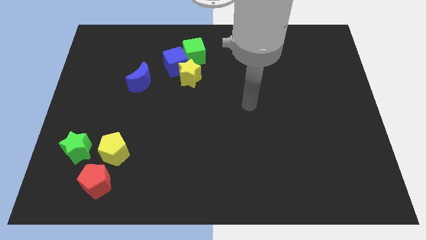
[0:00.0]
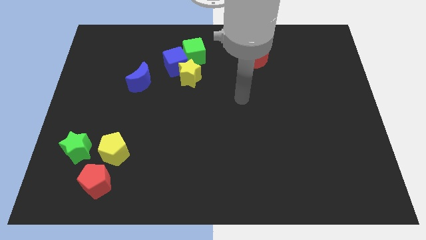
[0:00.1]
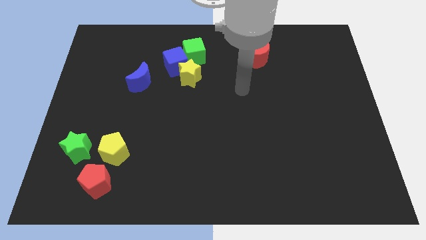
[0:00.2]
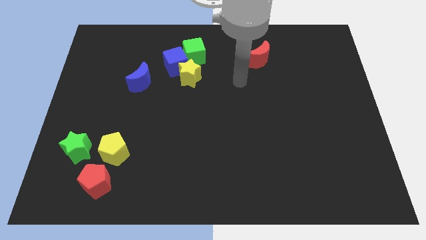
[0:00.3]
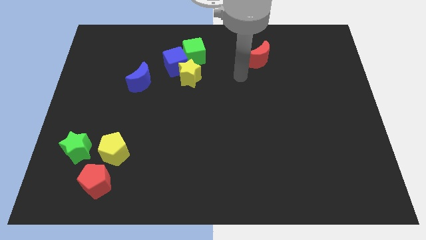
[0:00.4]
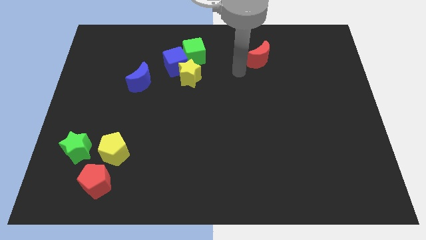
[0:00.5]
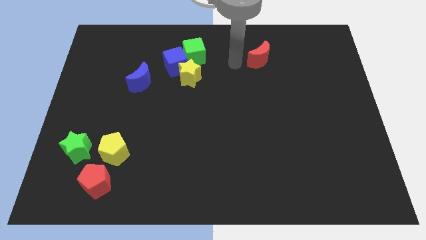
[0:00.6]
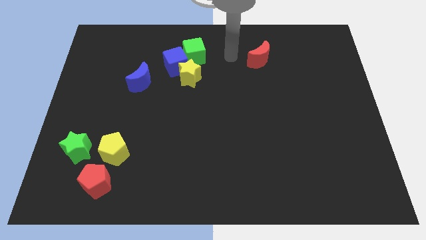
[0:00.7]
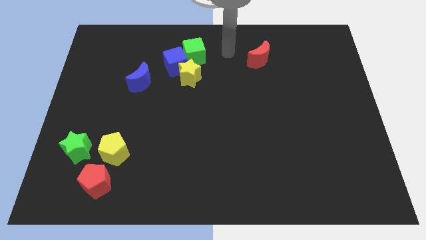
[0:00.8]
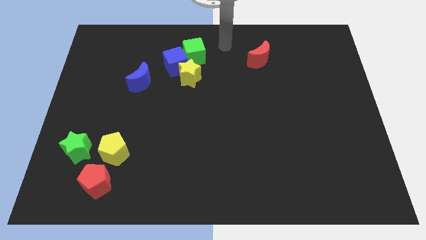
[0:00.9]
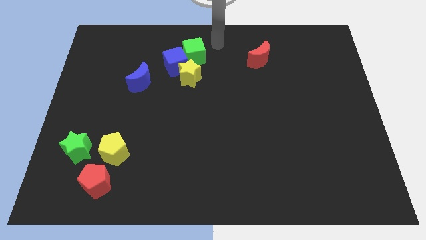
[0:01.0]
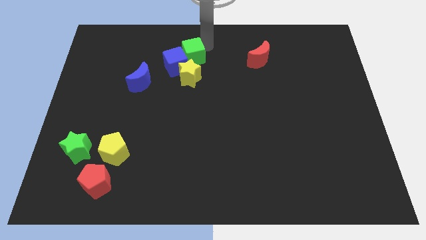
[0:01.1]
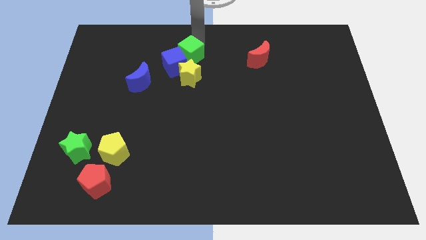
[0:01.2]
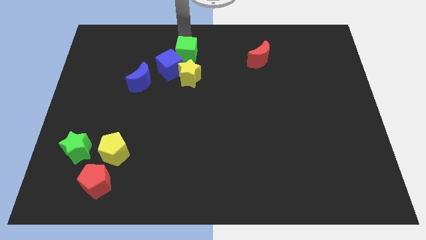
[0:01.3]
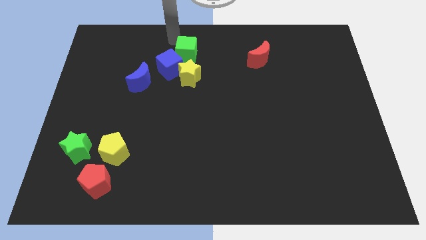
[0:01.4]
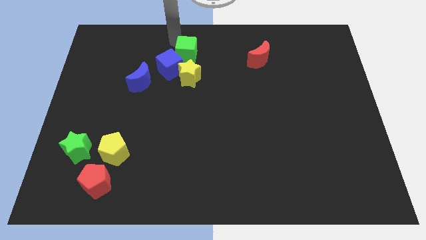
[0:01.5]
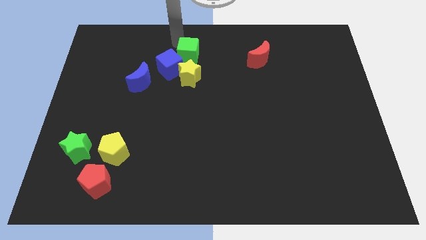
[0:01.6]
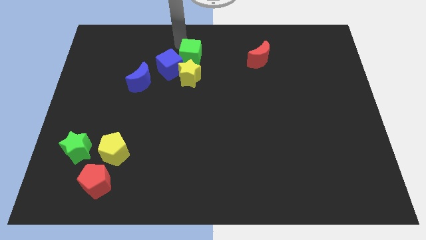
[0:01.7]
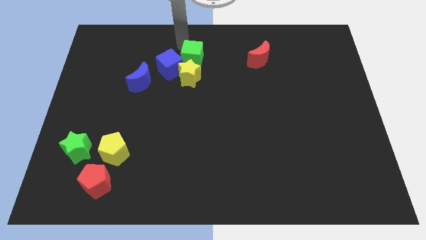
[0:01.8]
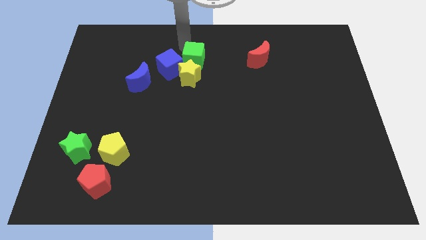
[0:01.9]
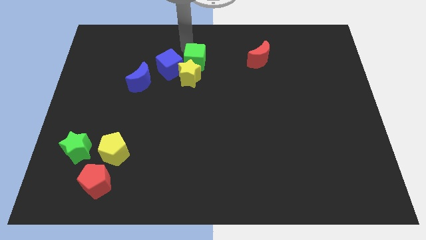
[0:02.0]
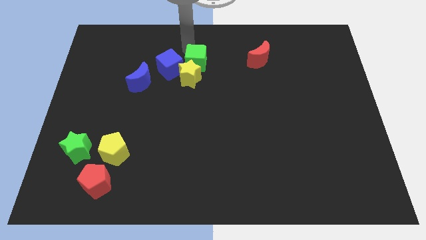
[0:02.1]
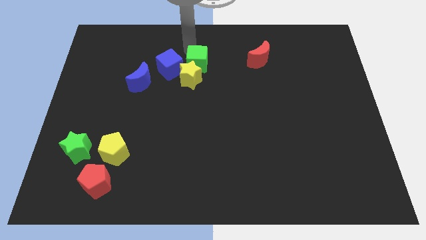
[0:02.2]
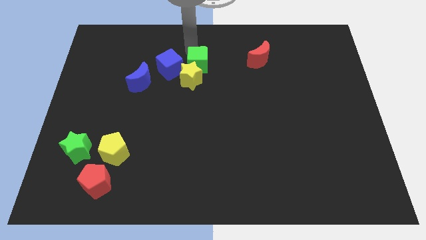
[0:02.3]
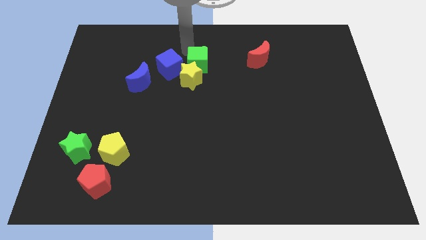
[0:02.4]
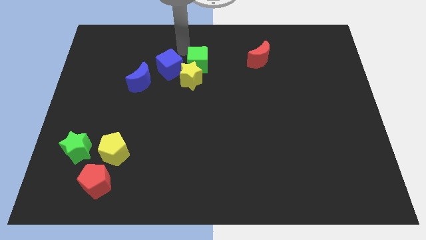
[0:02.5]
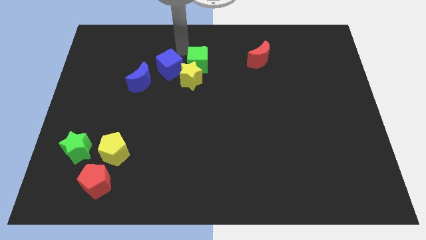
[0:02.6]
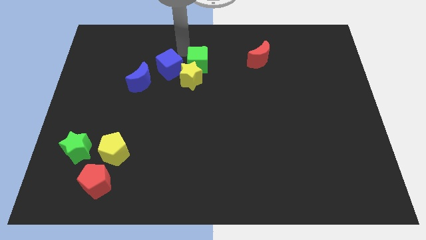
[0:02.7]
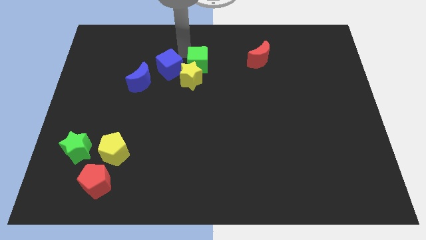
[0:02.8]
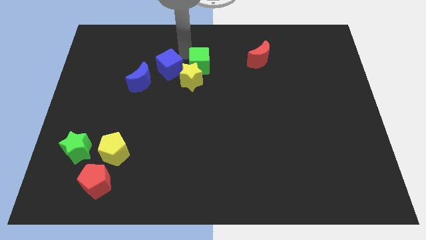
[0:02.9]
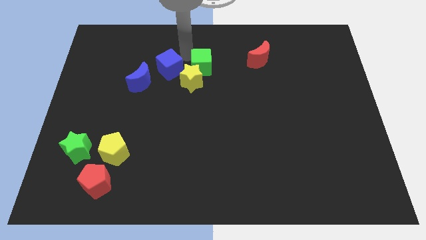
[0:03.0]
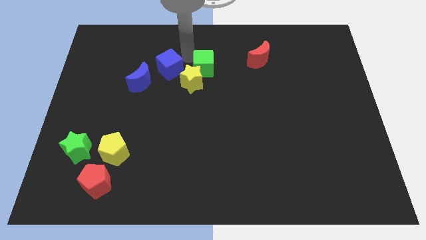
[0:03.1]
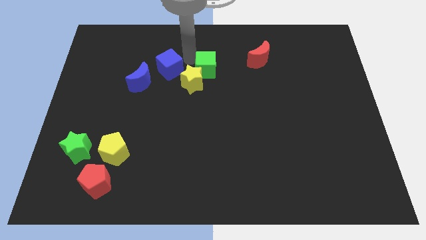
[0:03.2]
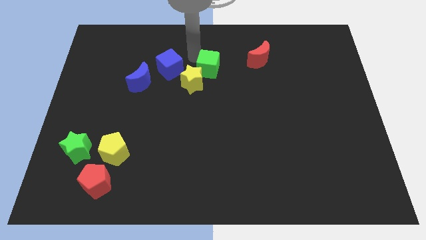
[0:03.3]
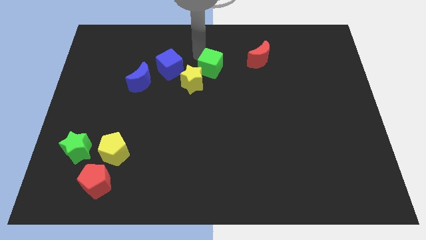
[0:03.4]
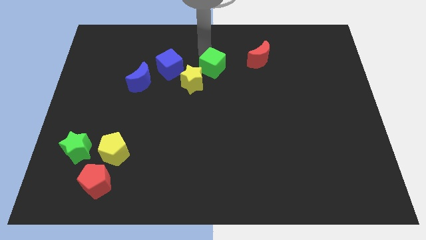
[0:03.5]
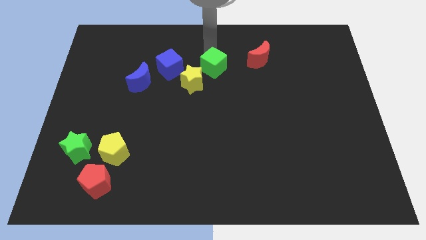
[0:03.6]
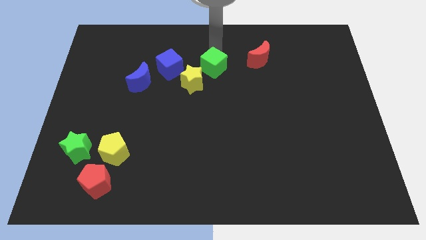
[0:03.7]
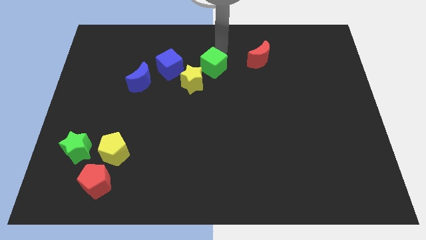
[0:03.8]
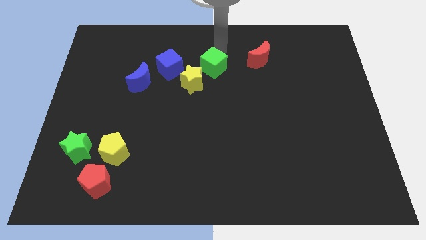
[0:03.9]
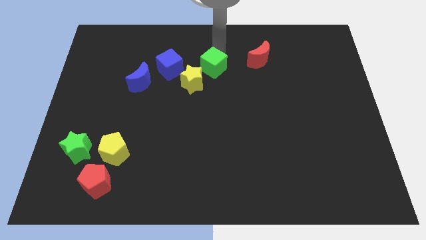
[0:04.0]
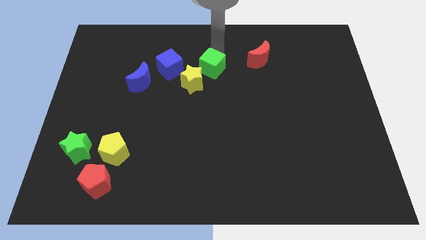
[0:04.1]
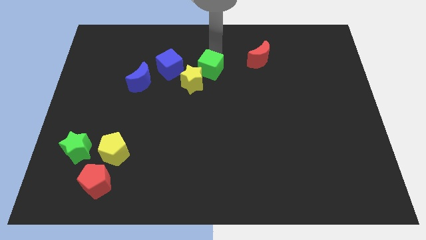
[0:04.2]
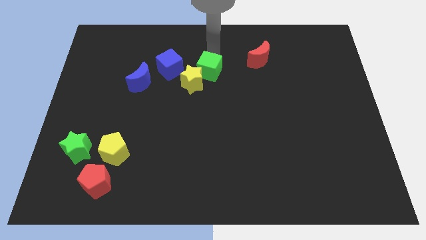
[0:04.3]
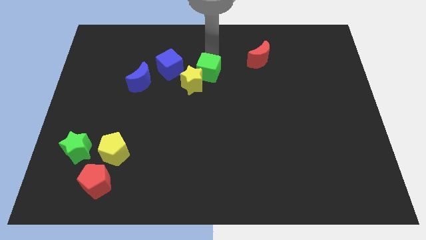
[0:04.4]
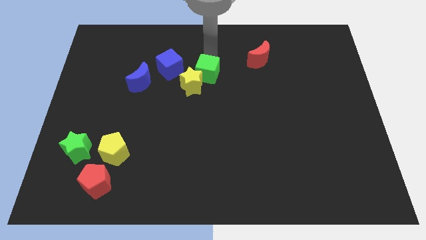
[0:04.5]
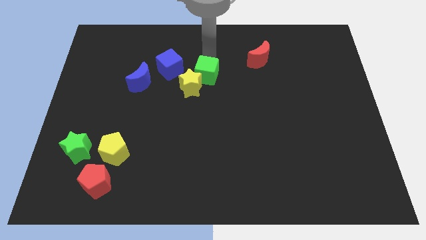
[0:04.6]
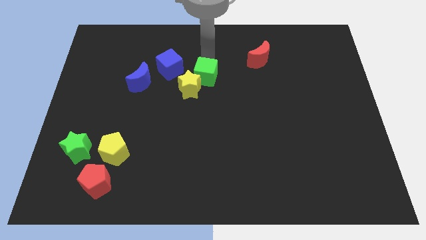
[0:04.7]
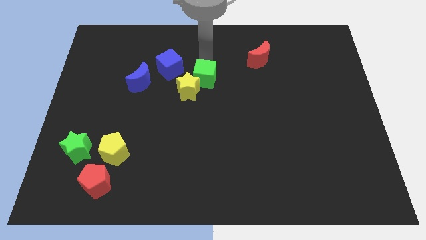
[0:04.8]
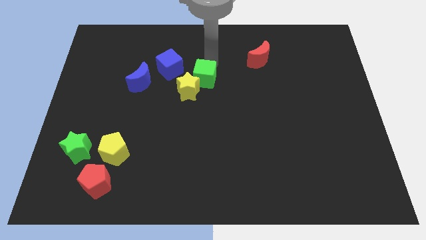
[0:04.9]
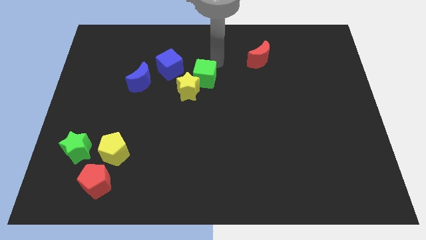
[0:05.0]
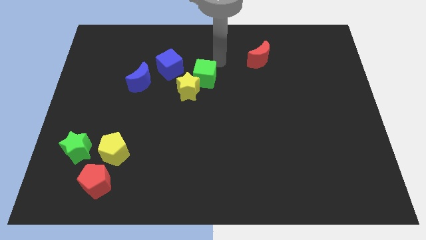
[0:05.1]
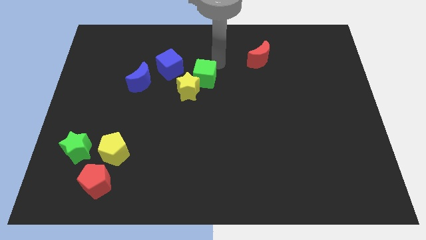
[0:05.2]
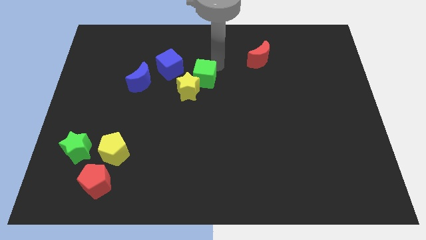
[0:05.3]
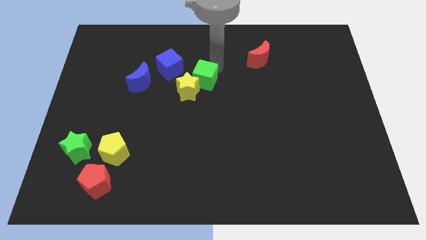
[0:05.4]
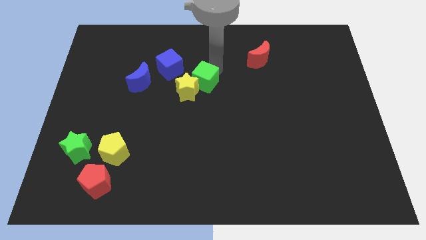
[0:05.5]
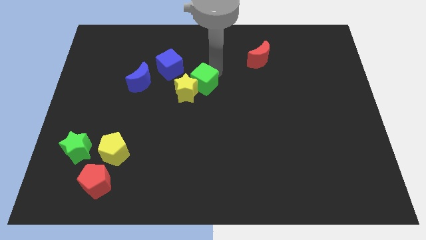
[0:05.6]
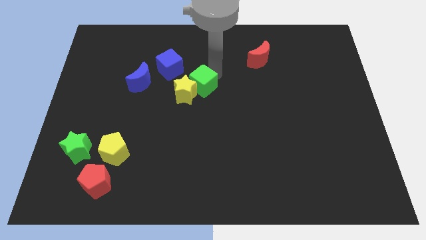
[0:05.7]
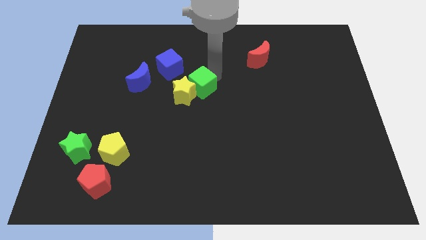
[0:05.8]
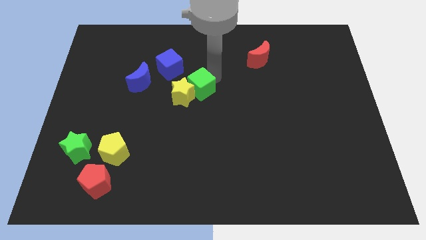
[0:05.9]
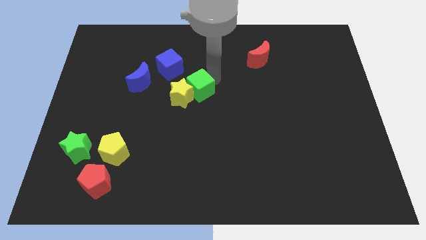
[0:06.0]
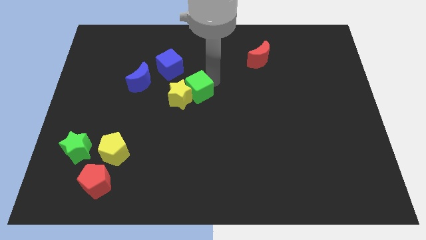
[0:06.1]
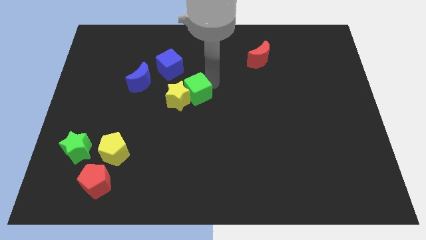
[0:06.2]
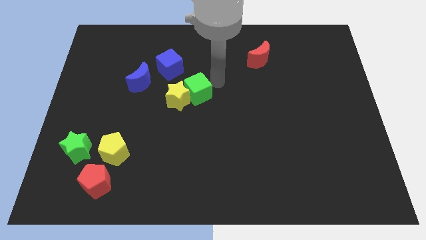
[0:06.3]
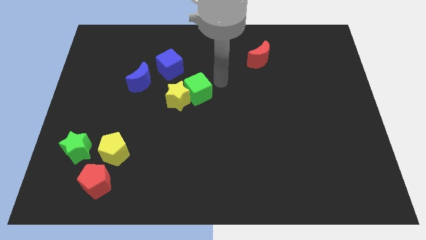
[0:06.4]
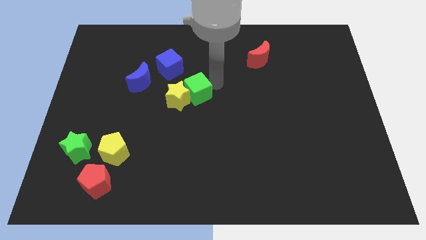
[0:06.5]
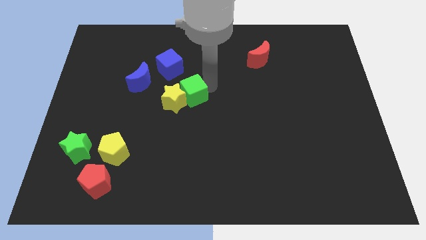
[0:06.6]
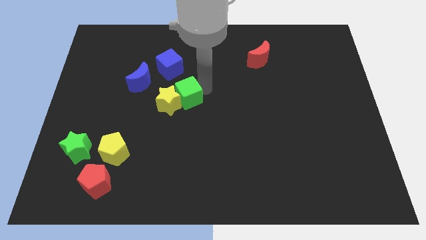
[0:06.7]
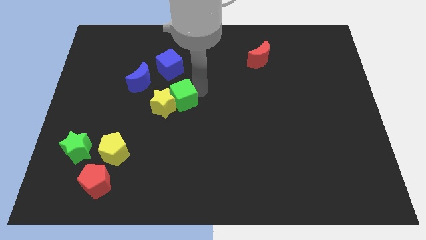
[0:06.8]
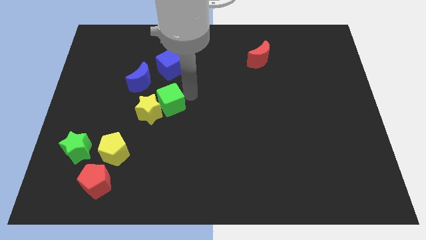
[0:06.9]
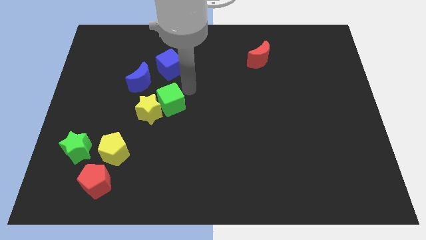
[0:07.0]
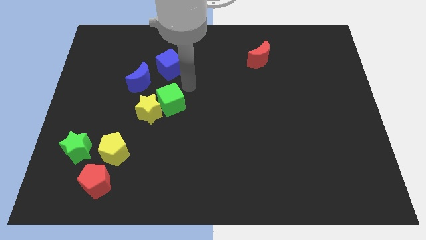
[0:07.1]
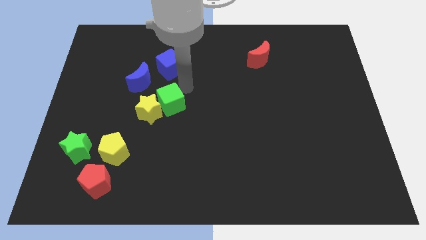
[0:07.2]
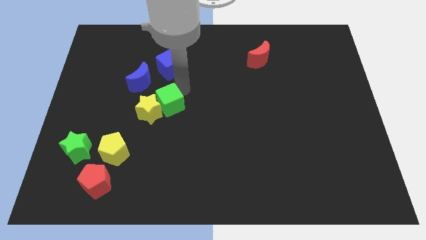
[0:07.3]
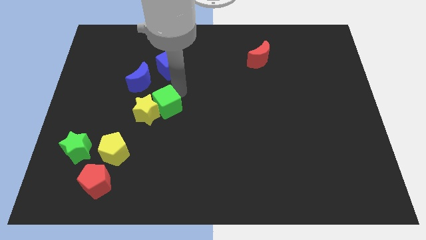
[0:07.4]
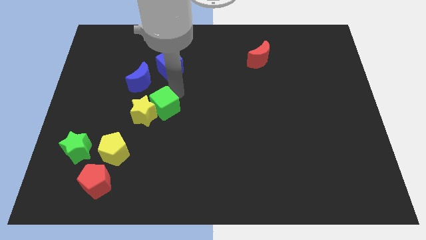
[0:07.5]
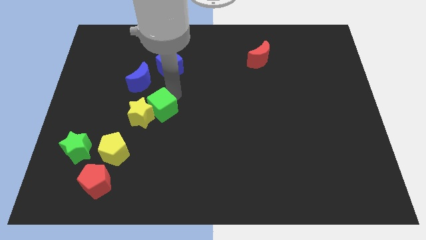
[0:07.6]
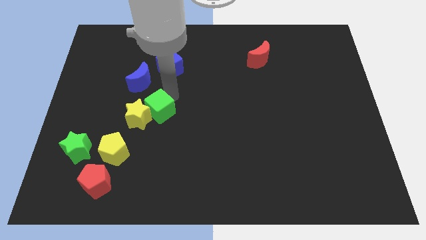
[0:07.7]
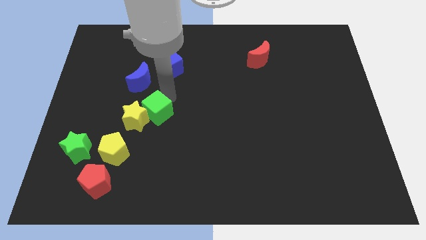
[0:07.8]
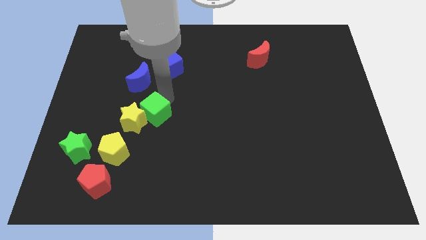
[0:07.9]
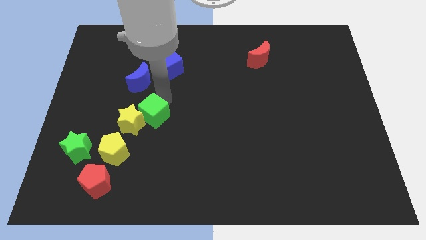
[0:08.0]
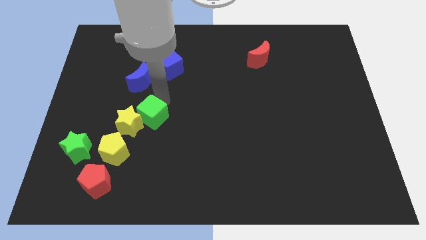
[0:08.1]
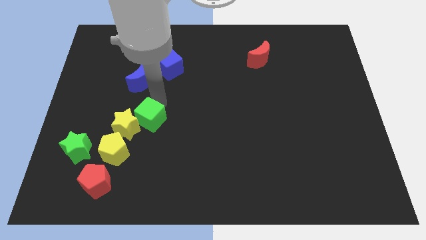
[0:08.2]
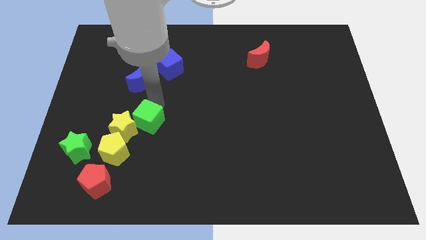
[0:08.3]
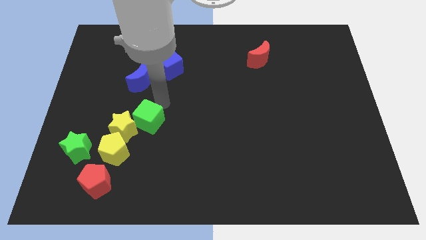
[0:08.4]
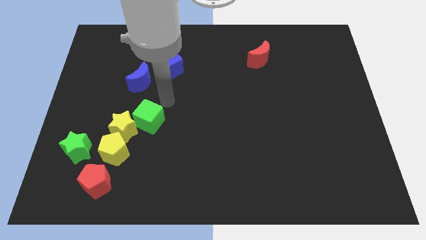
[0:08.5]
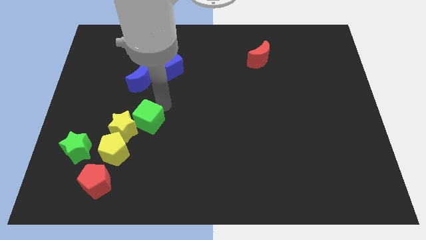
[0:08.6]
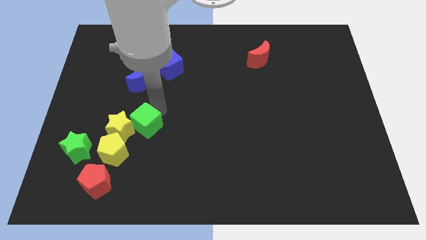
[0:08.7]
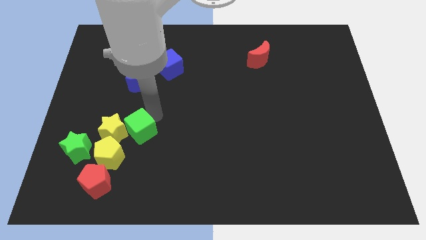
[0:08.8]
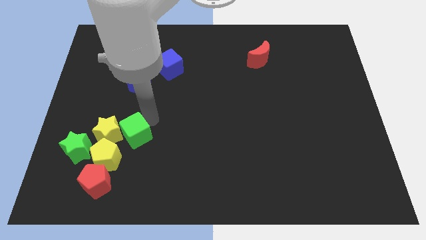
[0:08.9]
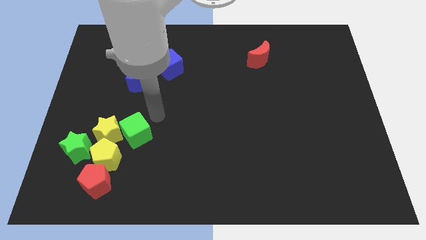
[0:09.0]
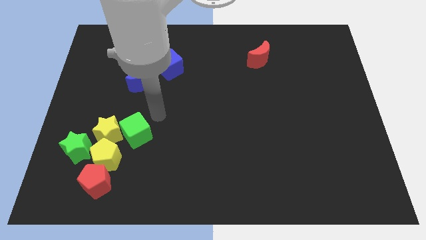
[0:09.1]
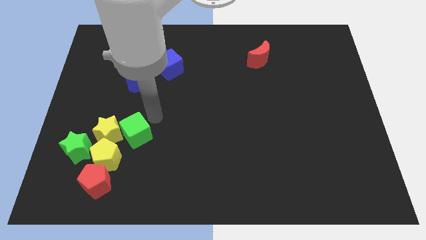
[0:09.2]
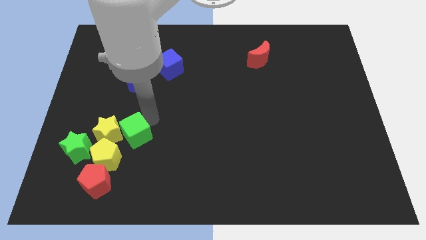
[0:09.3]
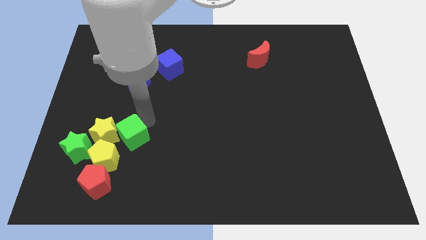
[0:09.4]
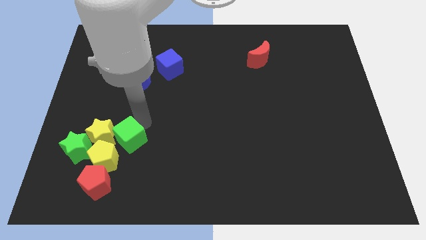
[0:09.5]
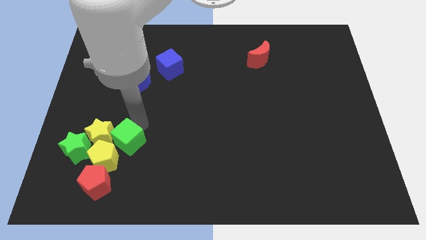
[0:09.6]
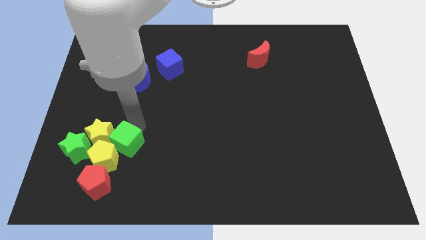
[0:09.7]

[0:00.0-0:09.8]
put the green cube to the yellow pentagon
